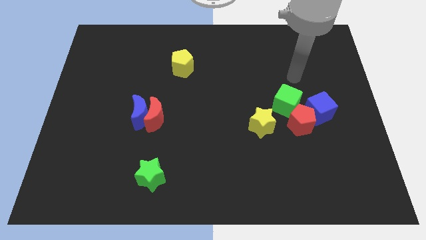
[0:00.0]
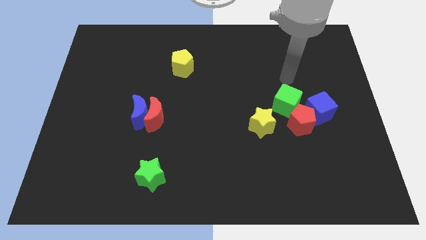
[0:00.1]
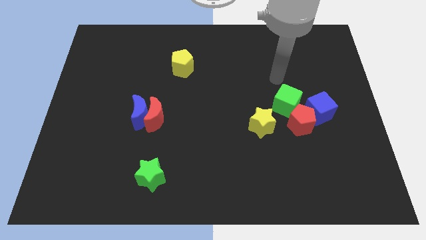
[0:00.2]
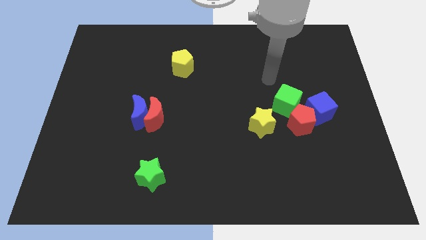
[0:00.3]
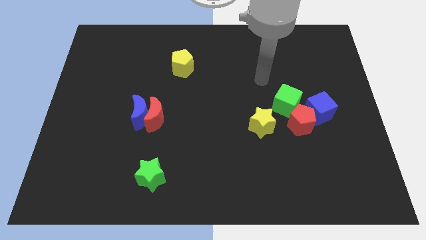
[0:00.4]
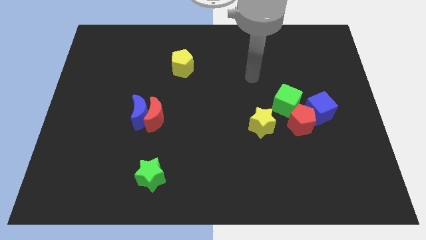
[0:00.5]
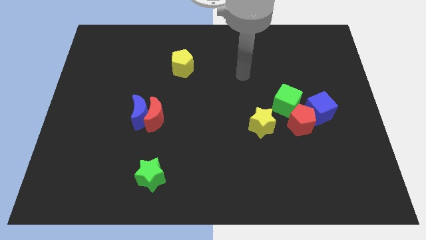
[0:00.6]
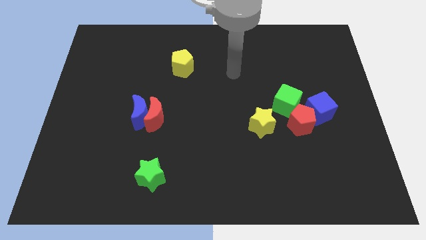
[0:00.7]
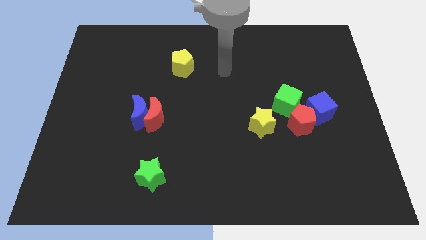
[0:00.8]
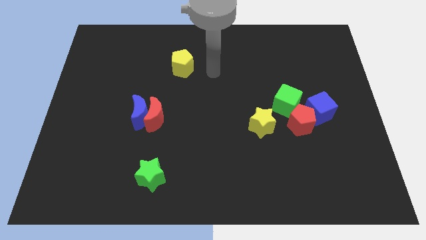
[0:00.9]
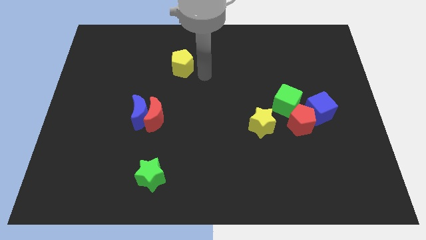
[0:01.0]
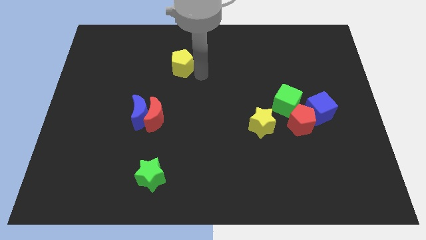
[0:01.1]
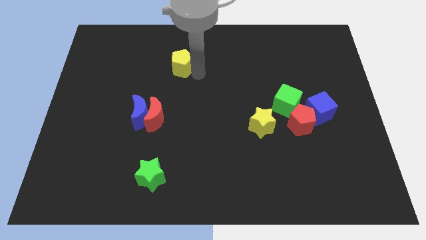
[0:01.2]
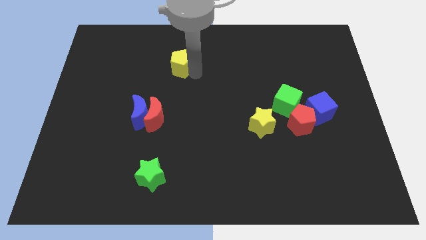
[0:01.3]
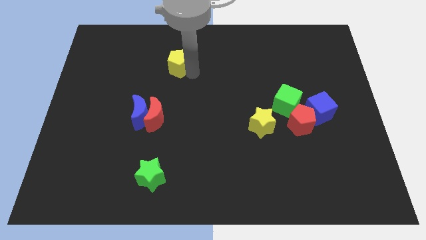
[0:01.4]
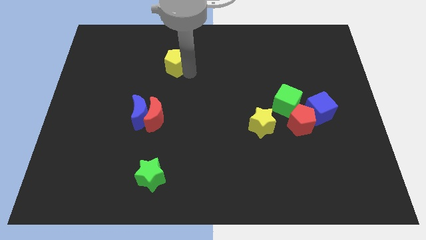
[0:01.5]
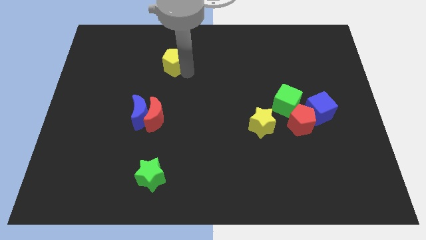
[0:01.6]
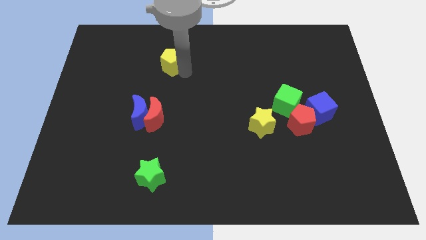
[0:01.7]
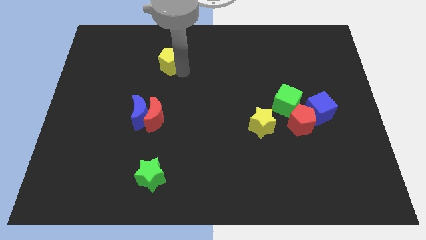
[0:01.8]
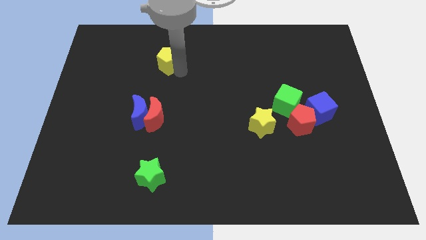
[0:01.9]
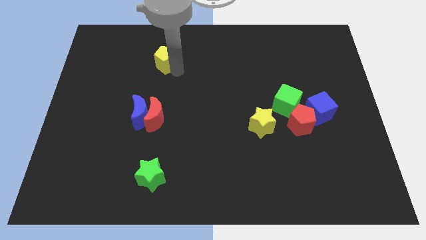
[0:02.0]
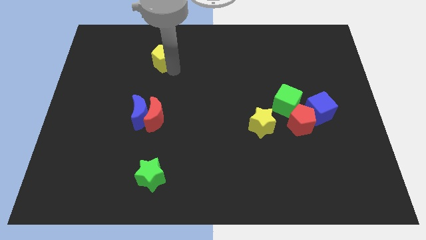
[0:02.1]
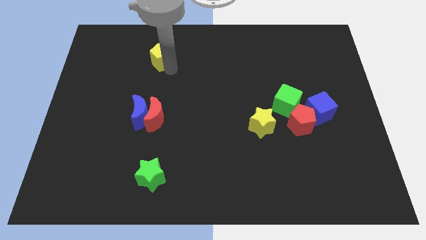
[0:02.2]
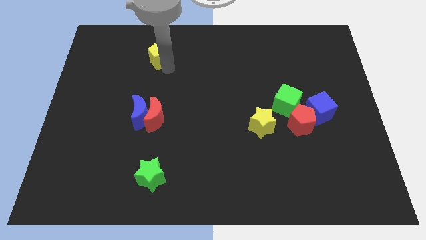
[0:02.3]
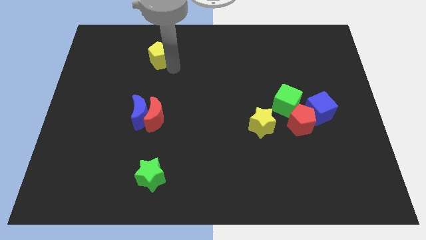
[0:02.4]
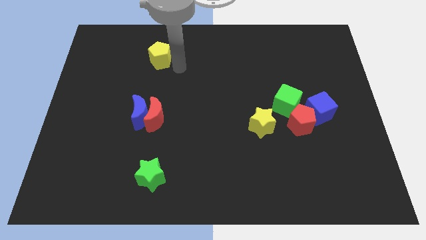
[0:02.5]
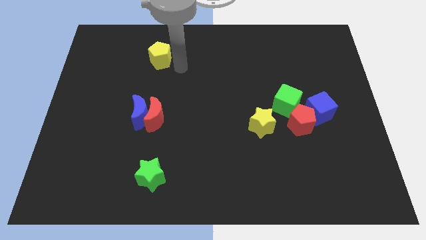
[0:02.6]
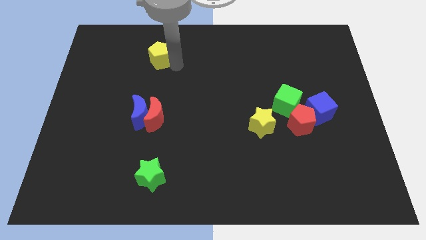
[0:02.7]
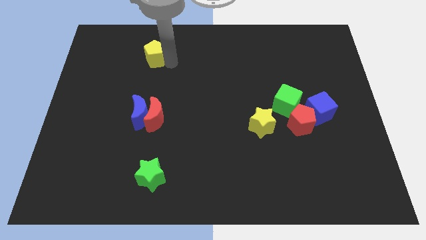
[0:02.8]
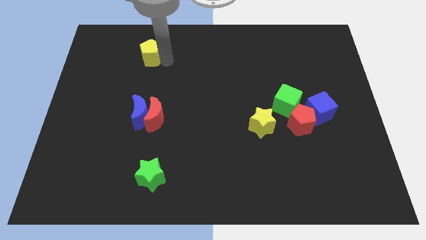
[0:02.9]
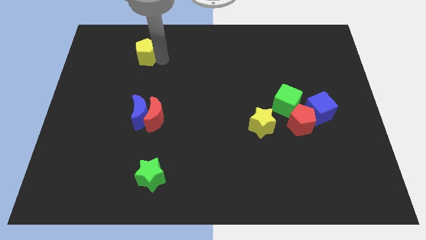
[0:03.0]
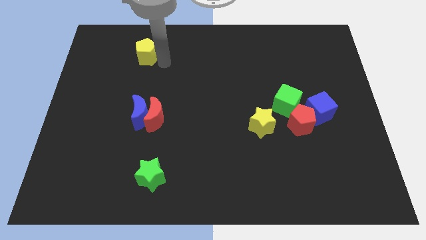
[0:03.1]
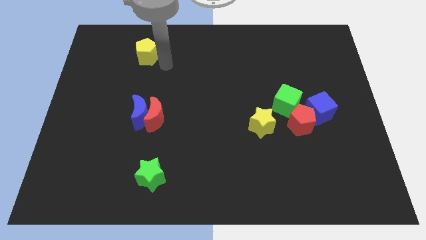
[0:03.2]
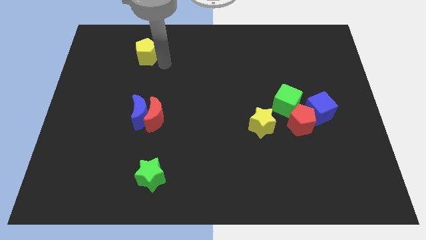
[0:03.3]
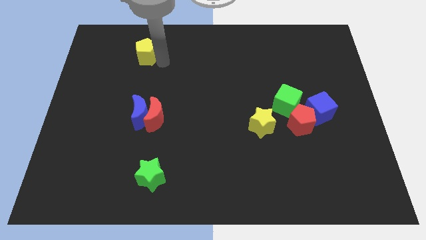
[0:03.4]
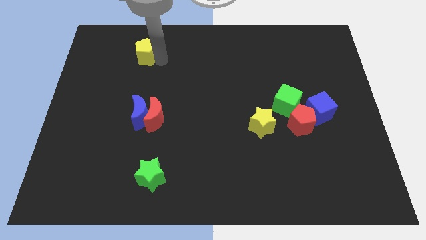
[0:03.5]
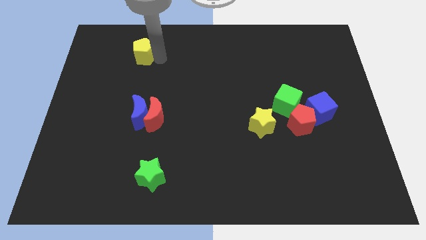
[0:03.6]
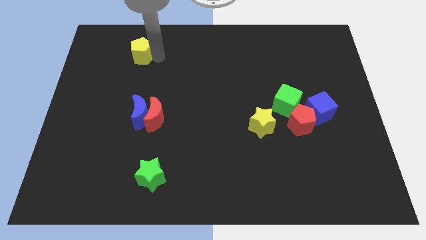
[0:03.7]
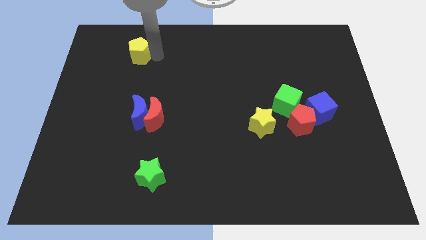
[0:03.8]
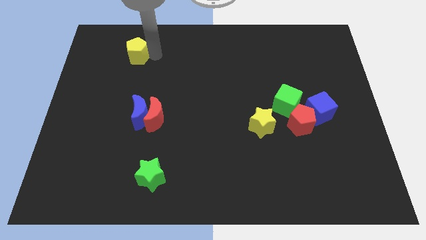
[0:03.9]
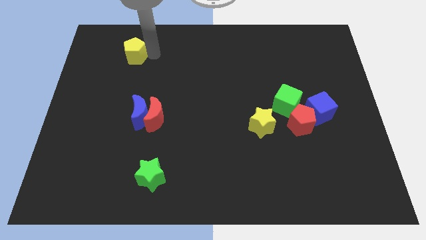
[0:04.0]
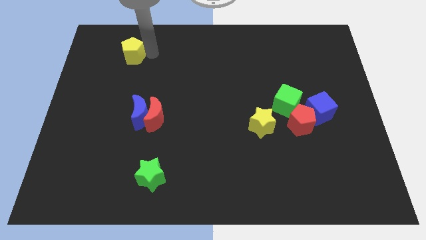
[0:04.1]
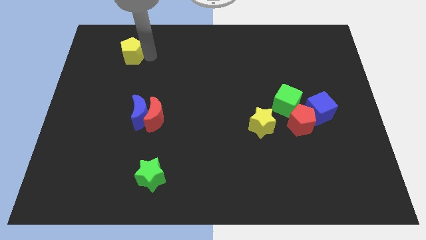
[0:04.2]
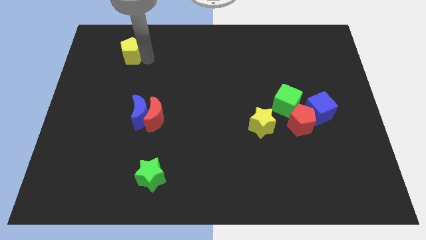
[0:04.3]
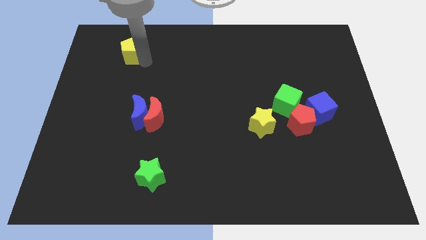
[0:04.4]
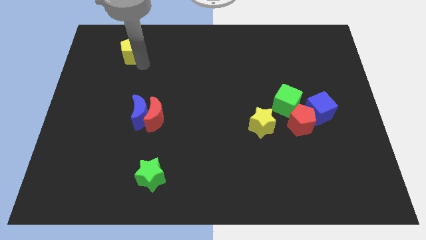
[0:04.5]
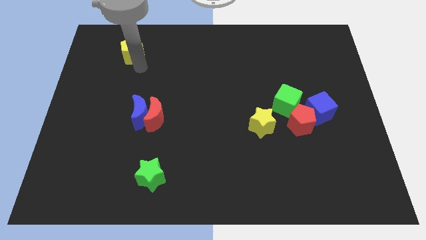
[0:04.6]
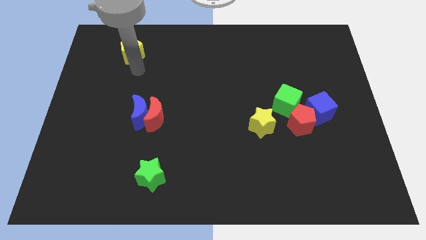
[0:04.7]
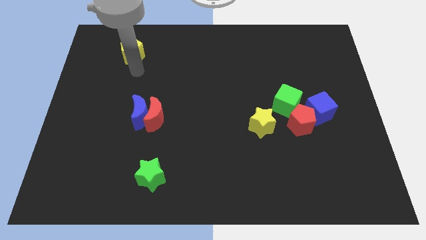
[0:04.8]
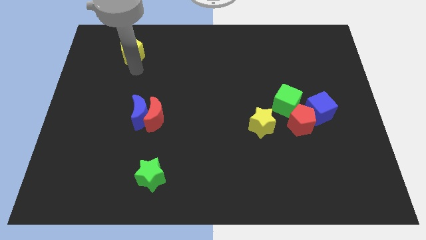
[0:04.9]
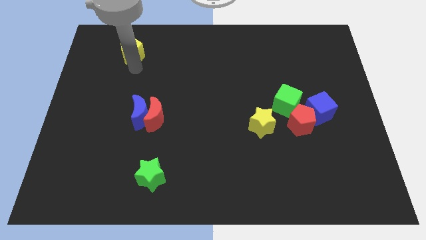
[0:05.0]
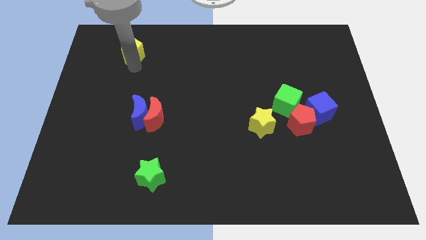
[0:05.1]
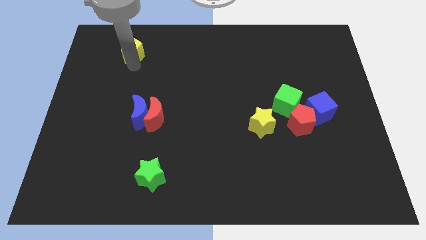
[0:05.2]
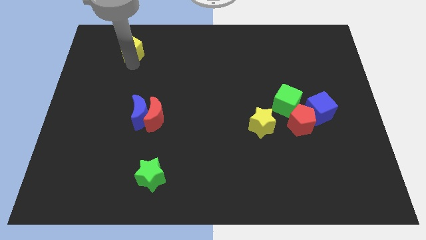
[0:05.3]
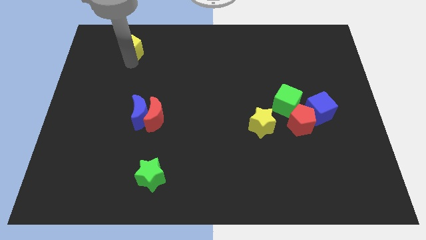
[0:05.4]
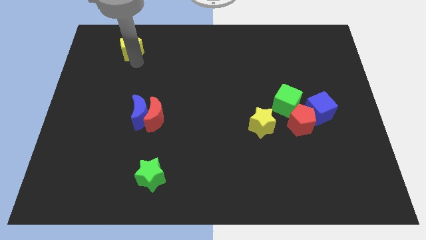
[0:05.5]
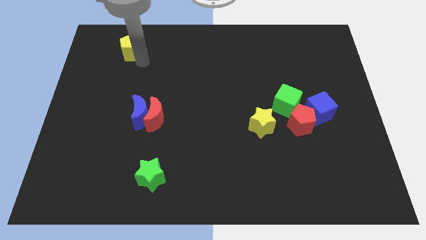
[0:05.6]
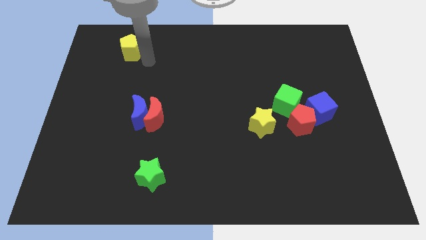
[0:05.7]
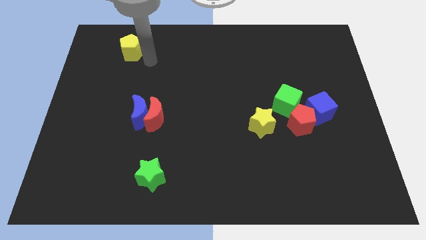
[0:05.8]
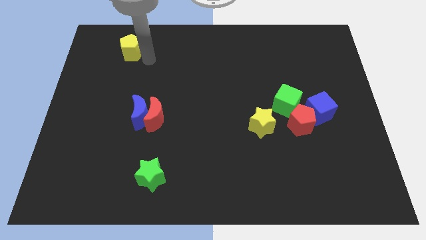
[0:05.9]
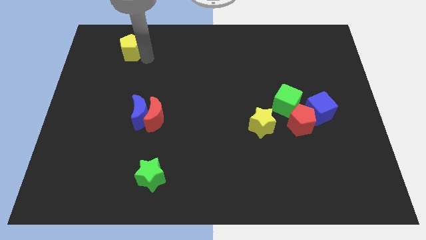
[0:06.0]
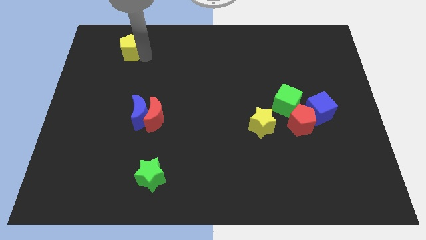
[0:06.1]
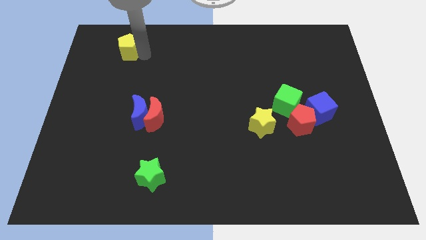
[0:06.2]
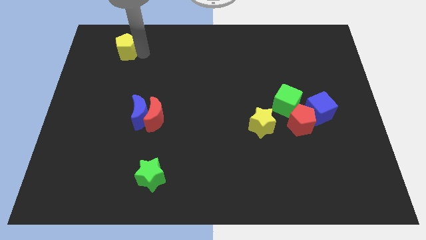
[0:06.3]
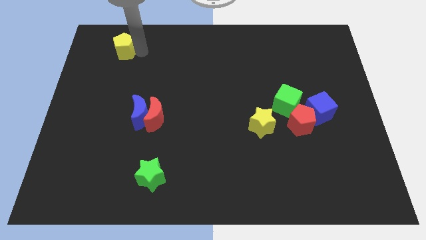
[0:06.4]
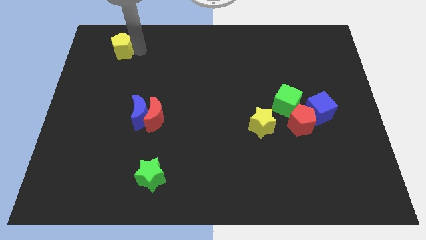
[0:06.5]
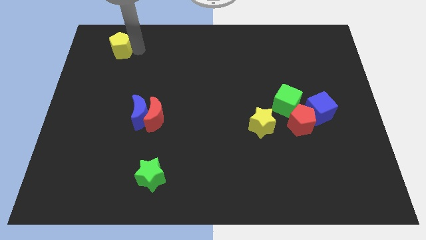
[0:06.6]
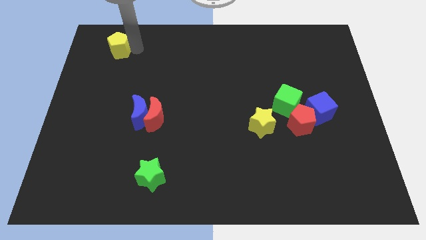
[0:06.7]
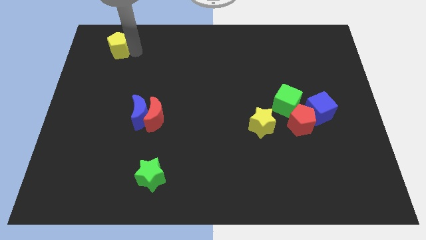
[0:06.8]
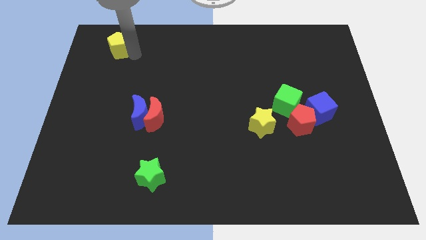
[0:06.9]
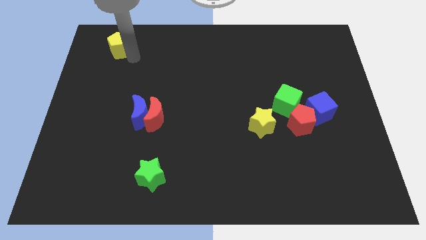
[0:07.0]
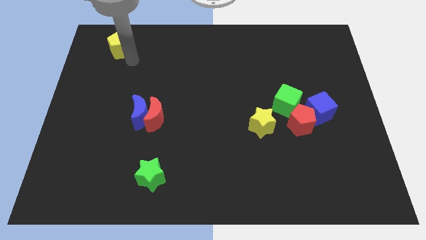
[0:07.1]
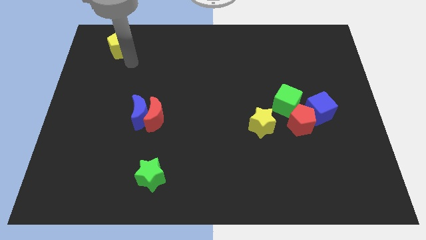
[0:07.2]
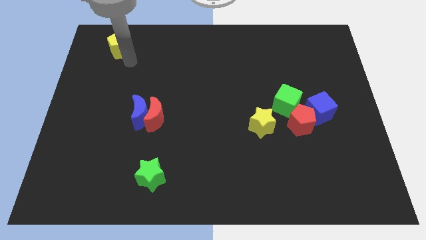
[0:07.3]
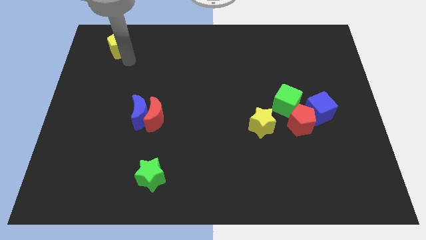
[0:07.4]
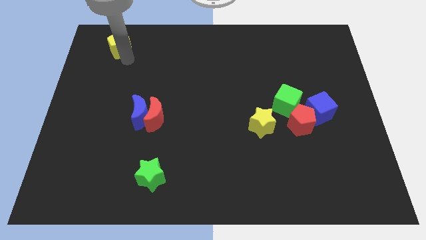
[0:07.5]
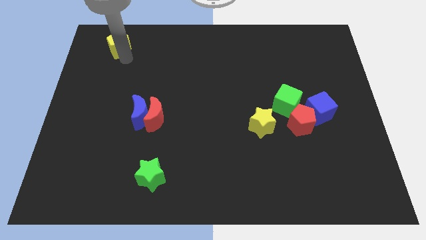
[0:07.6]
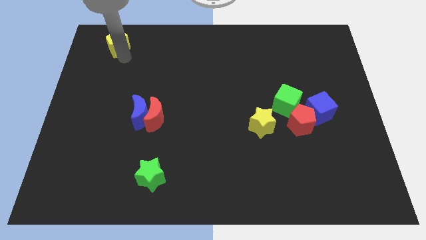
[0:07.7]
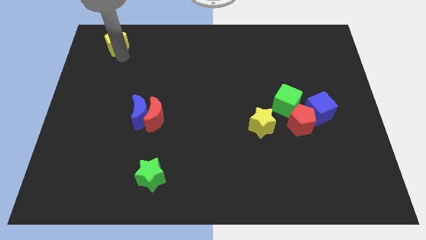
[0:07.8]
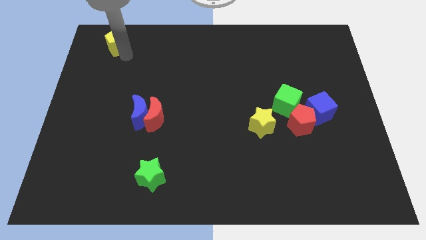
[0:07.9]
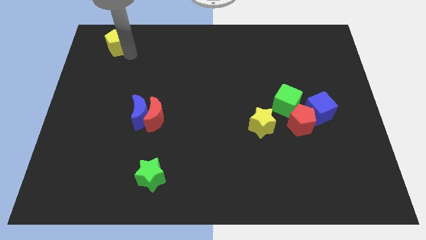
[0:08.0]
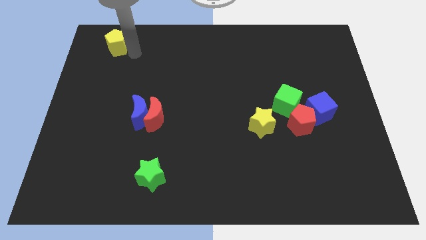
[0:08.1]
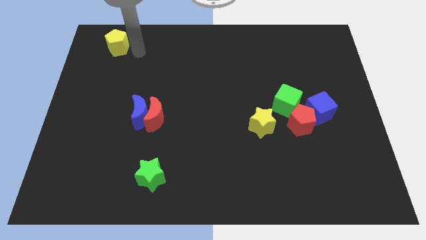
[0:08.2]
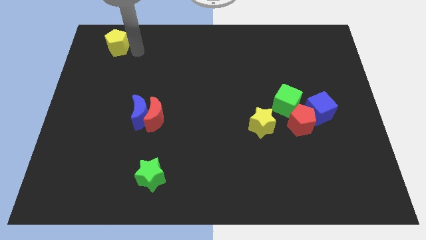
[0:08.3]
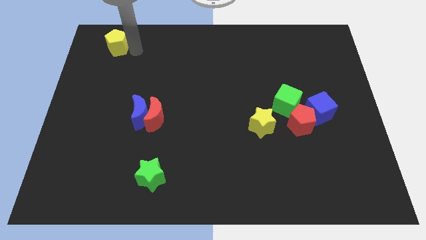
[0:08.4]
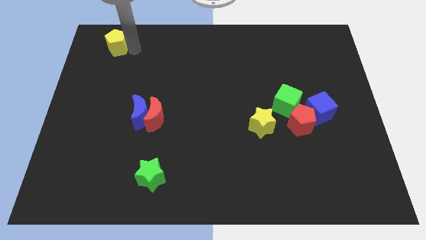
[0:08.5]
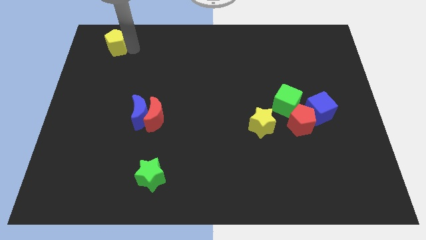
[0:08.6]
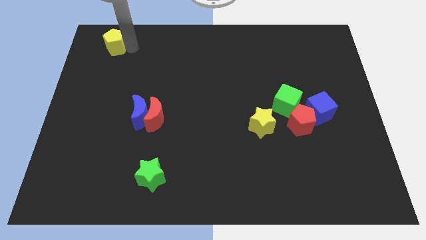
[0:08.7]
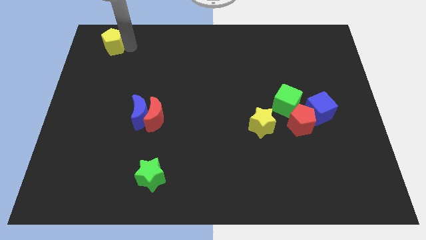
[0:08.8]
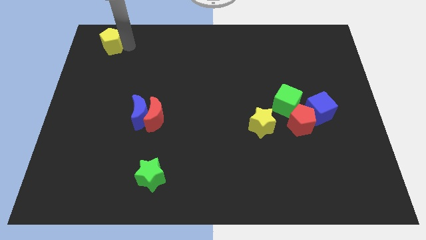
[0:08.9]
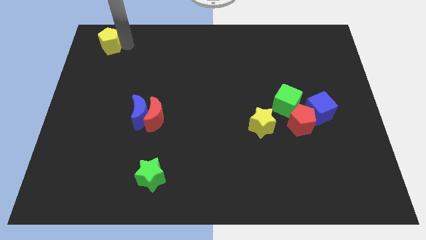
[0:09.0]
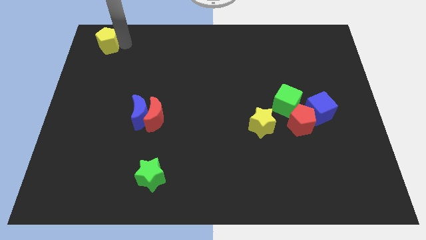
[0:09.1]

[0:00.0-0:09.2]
move the yellow pentagon to the top left
